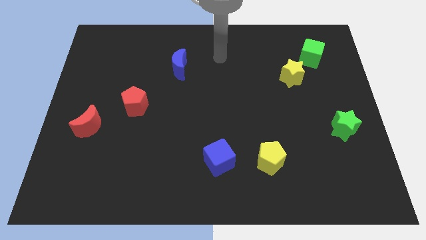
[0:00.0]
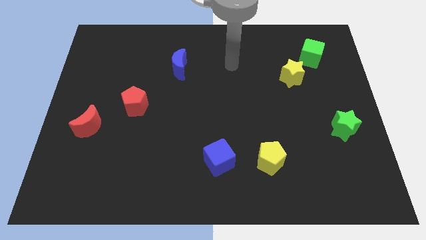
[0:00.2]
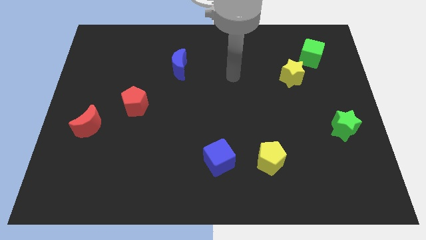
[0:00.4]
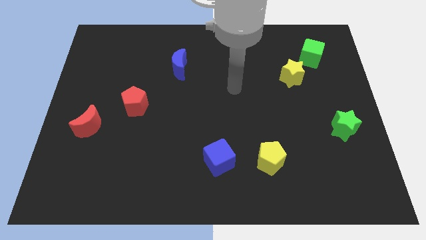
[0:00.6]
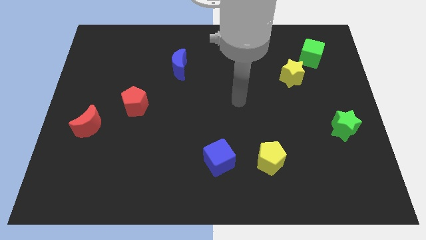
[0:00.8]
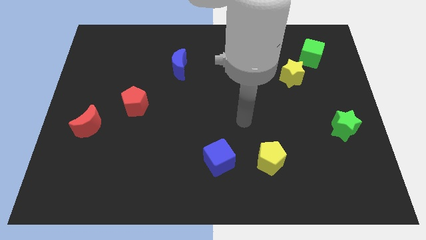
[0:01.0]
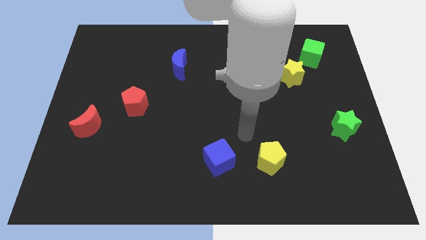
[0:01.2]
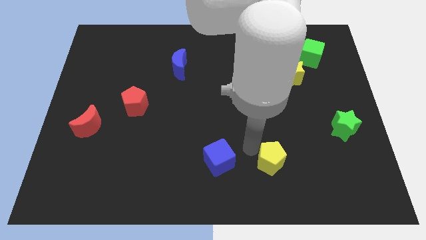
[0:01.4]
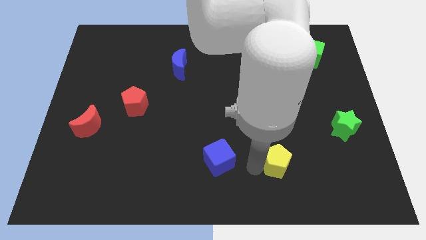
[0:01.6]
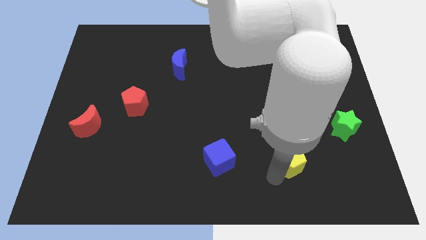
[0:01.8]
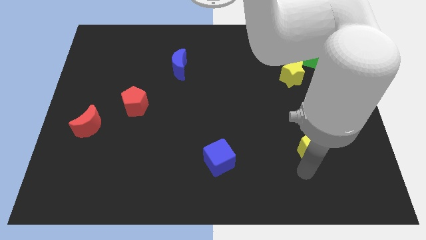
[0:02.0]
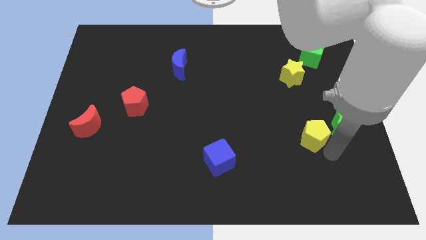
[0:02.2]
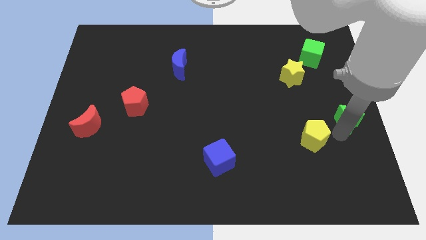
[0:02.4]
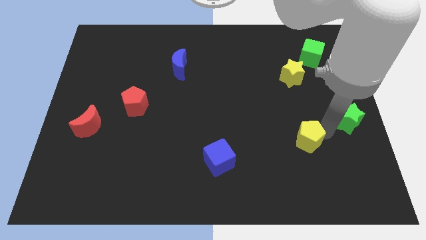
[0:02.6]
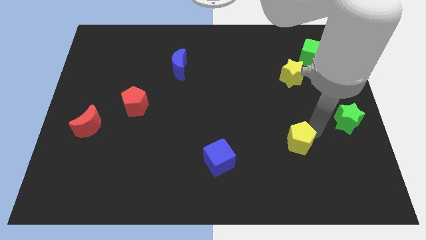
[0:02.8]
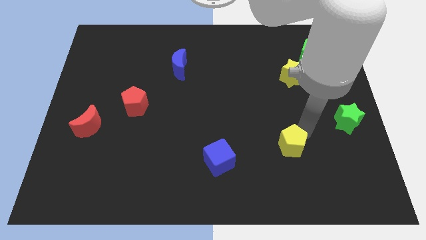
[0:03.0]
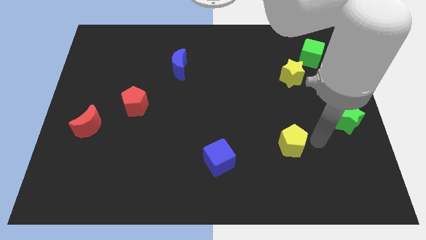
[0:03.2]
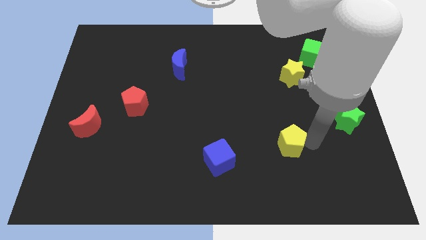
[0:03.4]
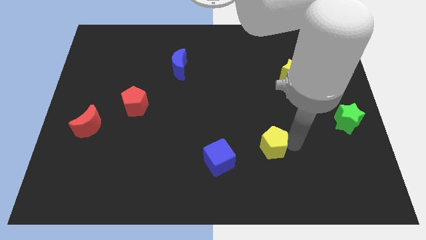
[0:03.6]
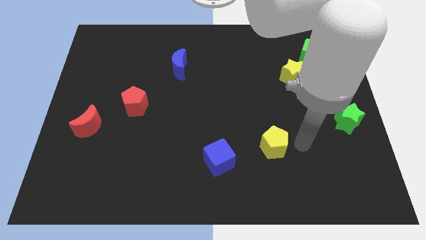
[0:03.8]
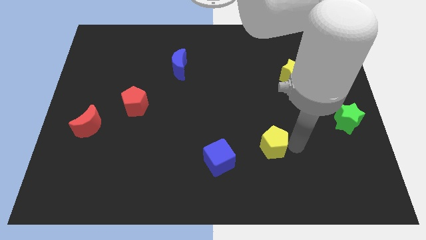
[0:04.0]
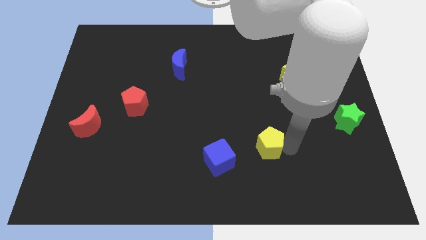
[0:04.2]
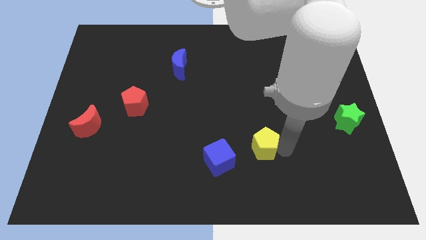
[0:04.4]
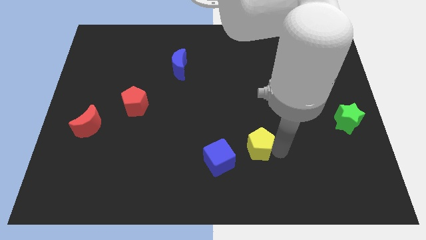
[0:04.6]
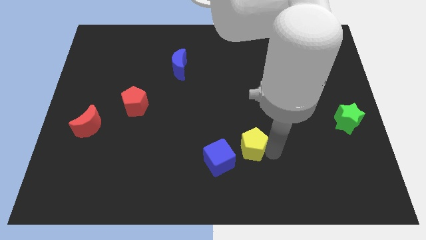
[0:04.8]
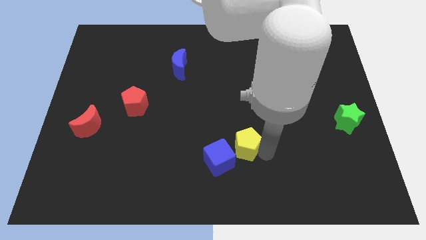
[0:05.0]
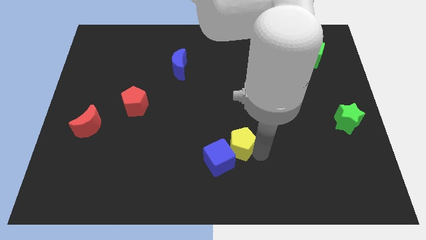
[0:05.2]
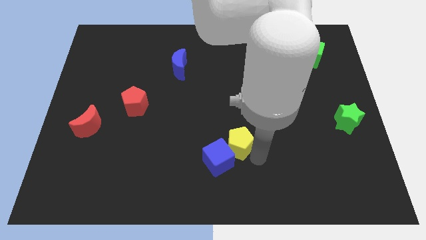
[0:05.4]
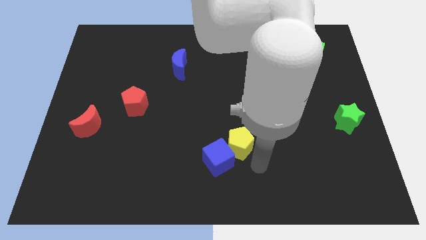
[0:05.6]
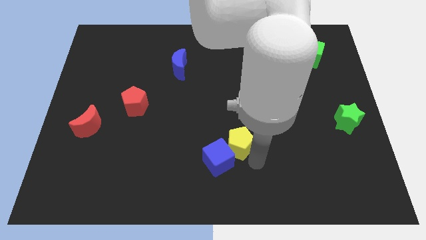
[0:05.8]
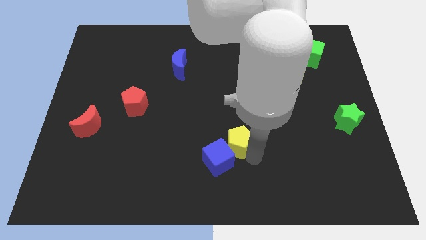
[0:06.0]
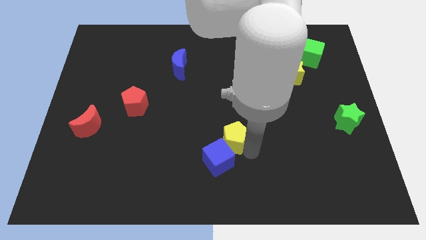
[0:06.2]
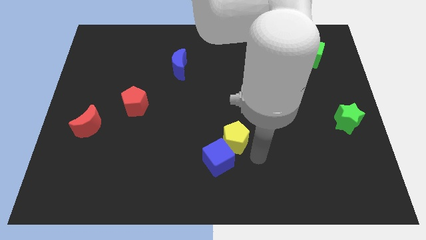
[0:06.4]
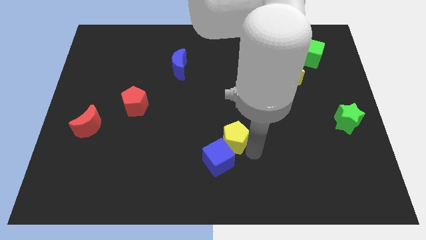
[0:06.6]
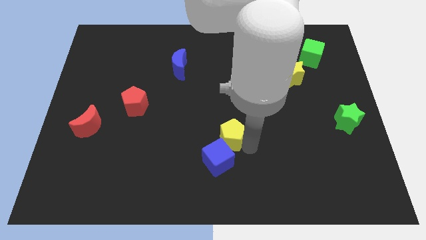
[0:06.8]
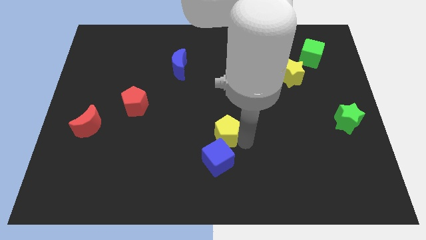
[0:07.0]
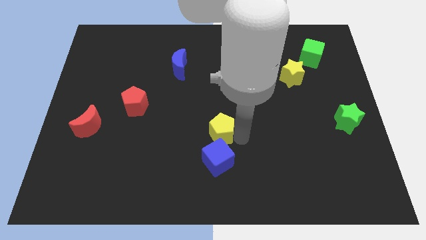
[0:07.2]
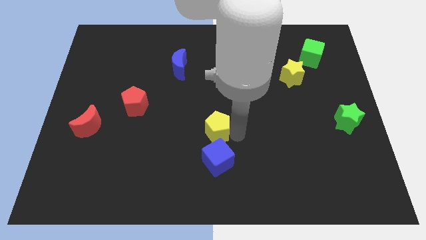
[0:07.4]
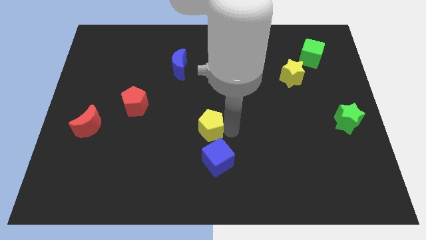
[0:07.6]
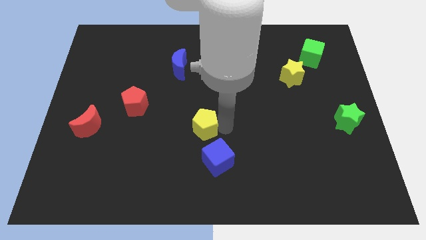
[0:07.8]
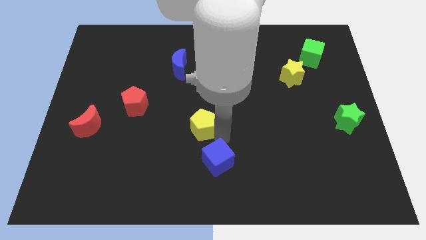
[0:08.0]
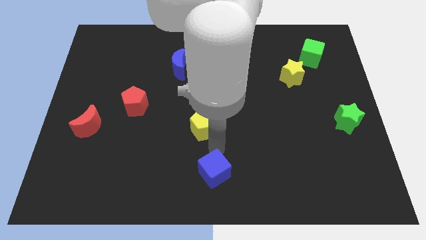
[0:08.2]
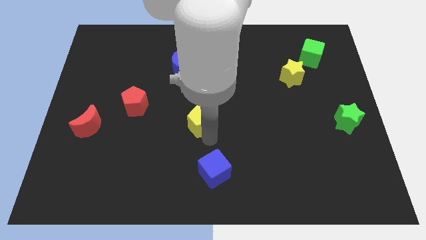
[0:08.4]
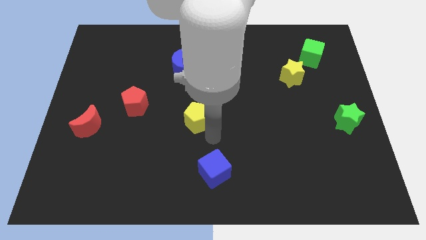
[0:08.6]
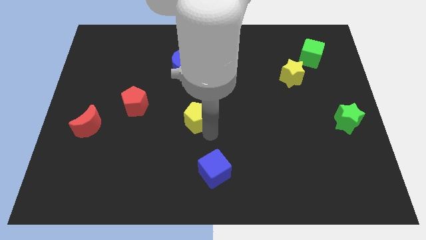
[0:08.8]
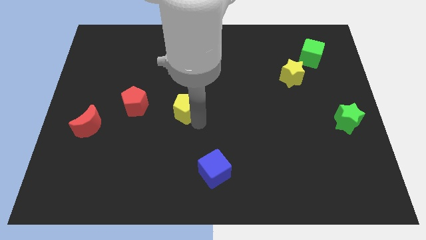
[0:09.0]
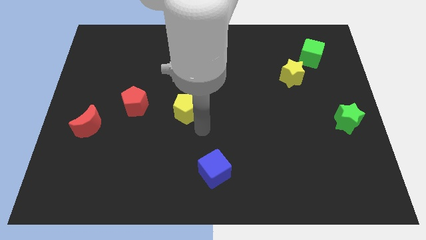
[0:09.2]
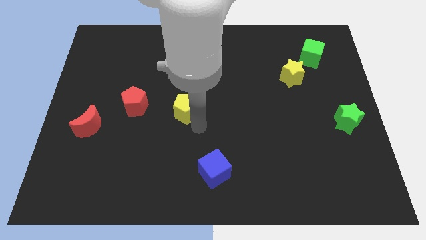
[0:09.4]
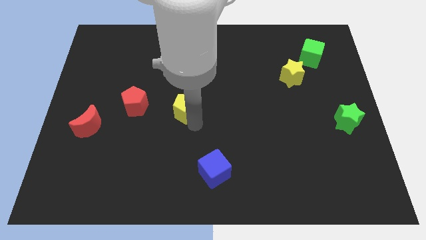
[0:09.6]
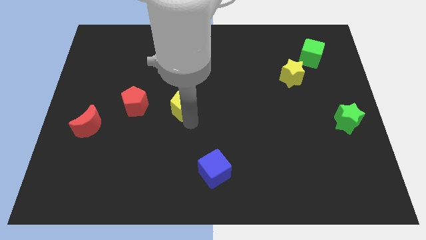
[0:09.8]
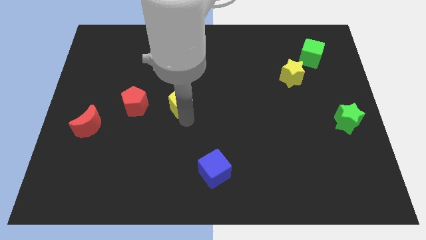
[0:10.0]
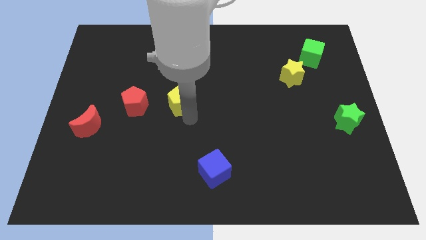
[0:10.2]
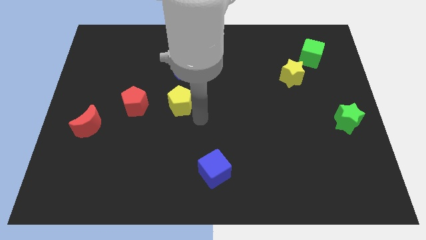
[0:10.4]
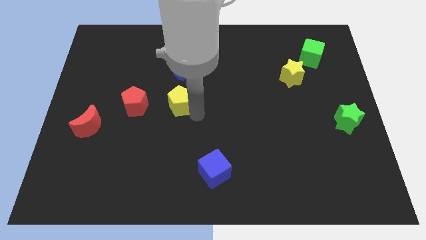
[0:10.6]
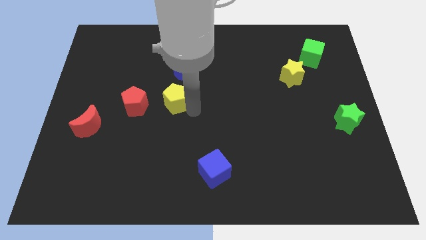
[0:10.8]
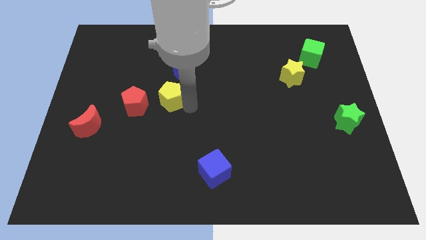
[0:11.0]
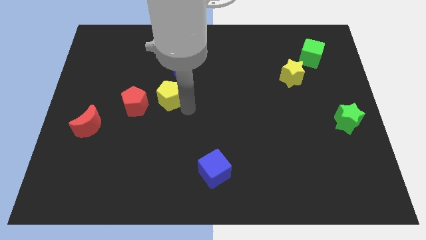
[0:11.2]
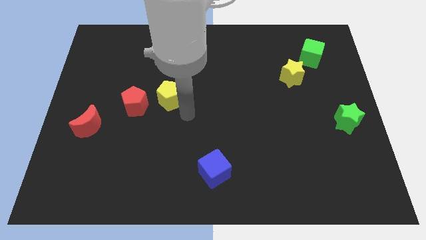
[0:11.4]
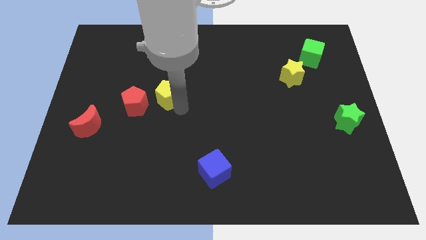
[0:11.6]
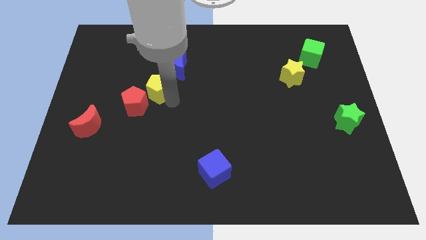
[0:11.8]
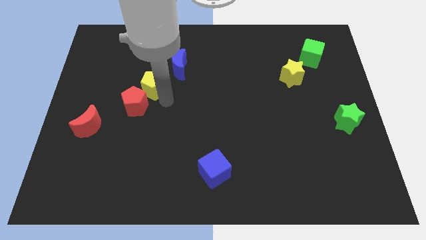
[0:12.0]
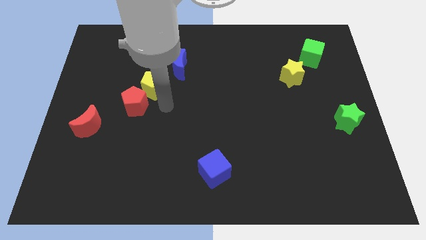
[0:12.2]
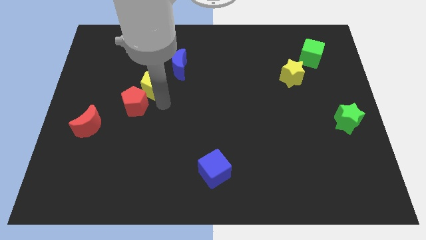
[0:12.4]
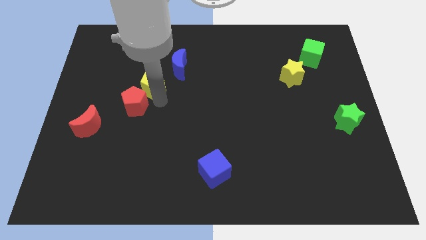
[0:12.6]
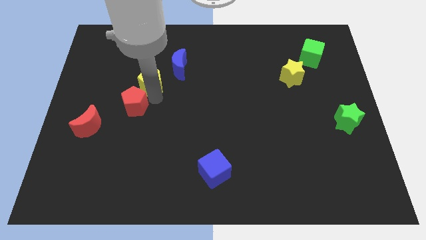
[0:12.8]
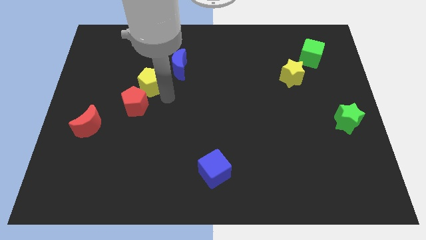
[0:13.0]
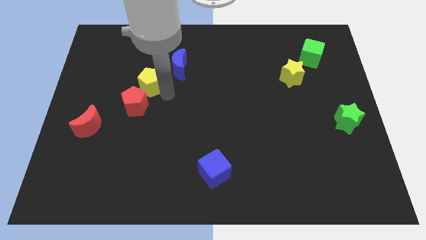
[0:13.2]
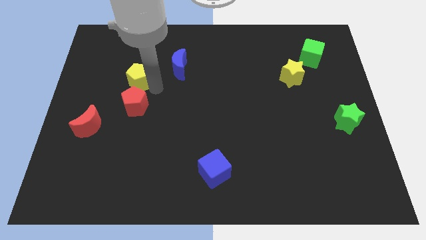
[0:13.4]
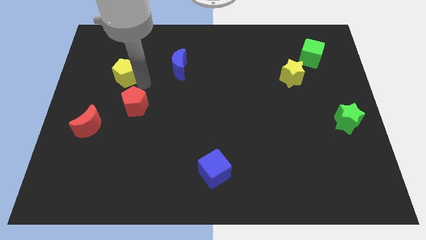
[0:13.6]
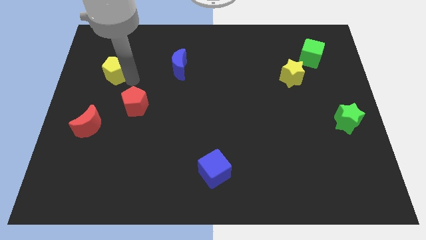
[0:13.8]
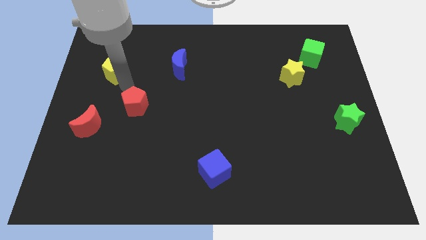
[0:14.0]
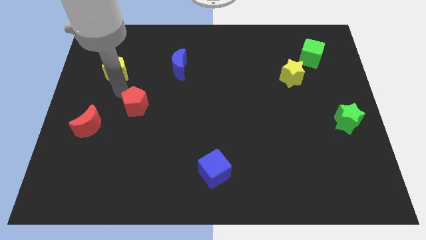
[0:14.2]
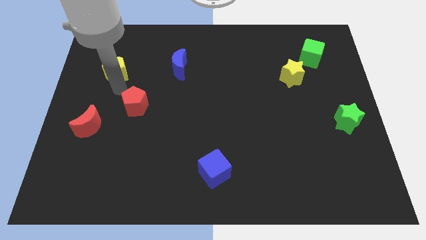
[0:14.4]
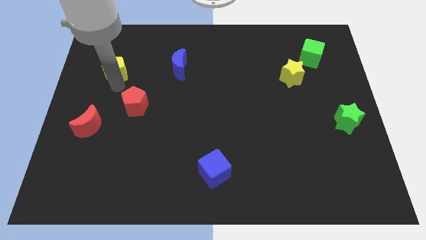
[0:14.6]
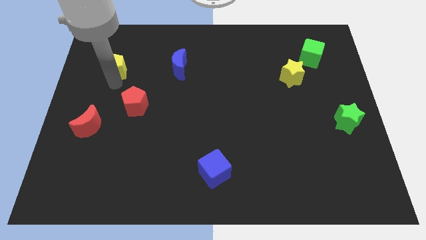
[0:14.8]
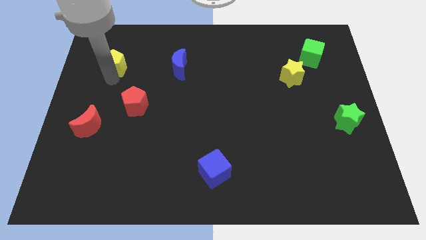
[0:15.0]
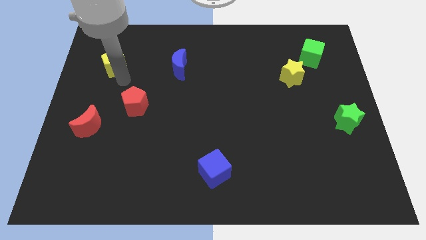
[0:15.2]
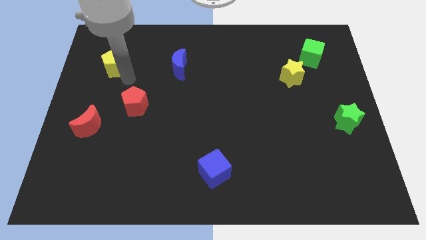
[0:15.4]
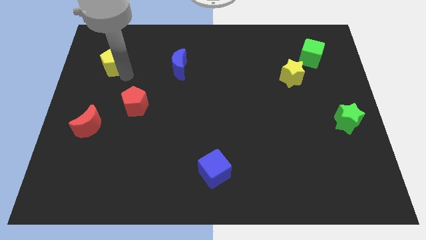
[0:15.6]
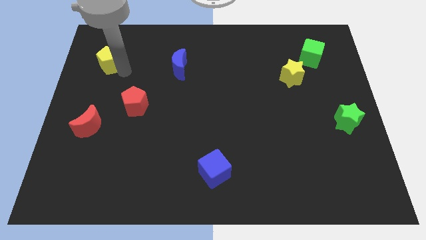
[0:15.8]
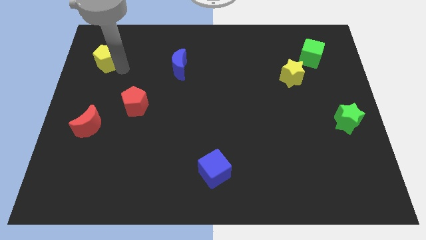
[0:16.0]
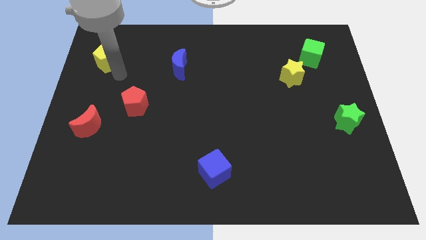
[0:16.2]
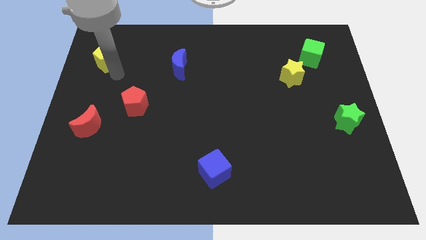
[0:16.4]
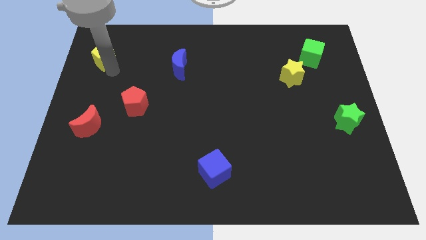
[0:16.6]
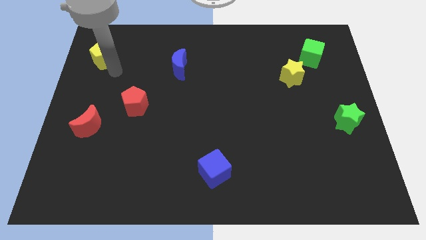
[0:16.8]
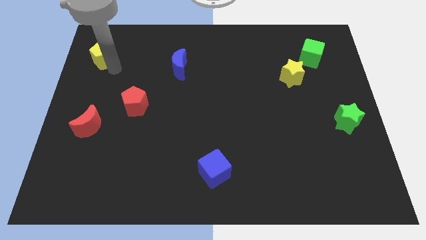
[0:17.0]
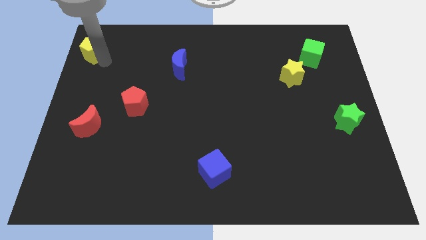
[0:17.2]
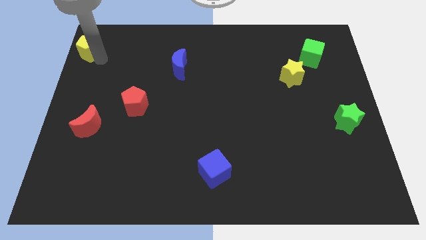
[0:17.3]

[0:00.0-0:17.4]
move the yellow pentagon to the top left corner
